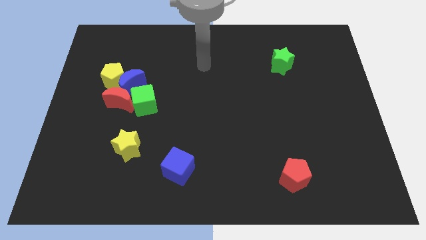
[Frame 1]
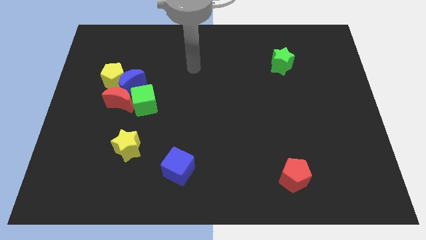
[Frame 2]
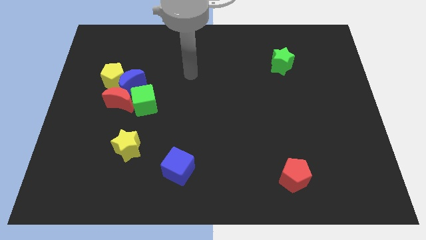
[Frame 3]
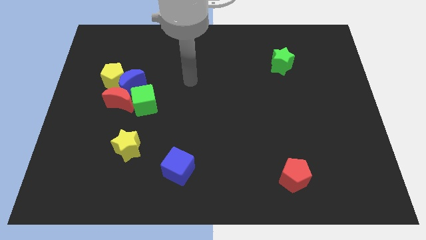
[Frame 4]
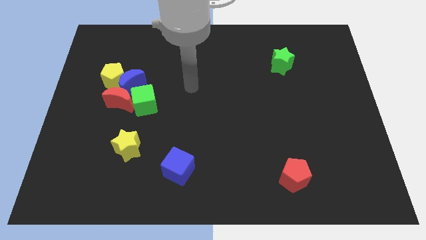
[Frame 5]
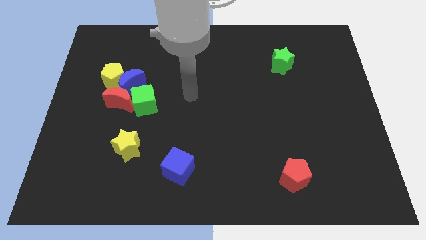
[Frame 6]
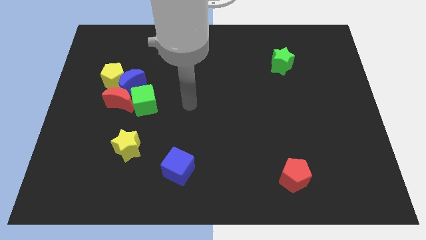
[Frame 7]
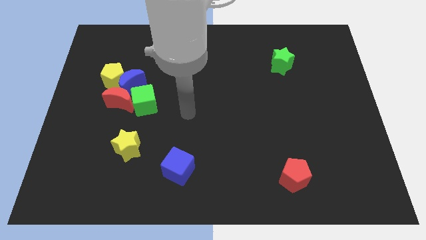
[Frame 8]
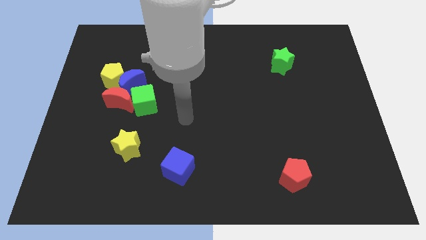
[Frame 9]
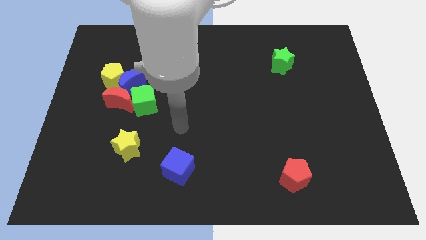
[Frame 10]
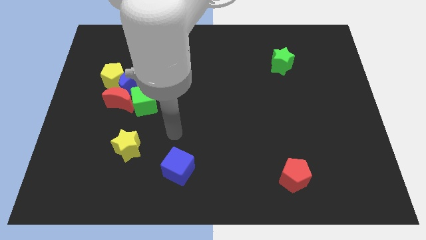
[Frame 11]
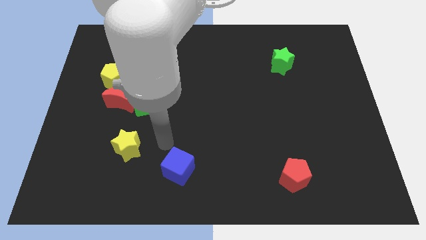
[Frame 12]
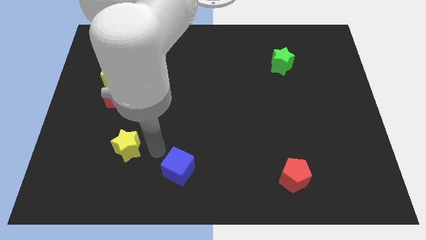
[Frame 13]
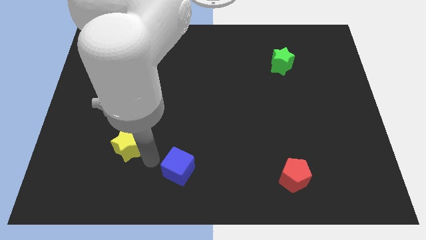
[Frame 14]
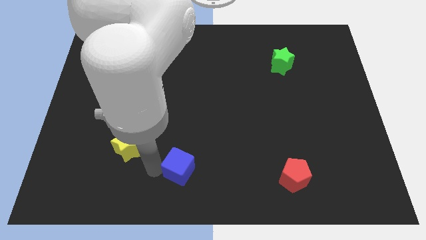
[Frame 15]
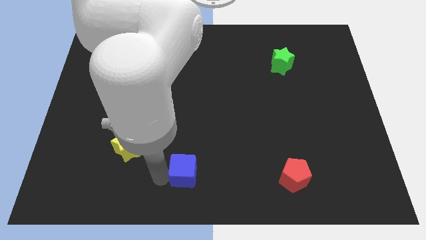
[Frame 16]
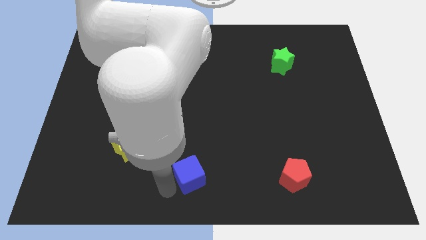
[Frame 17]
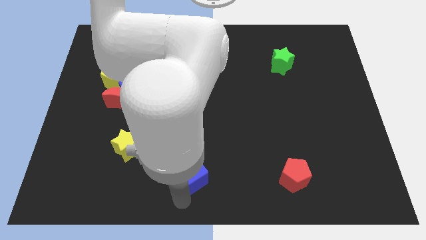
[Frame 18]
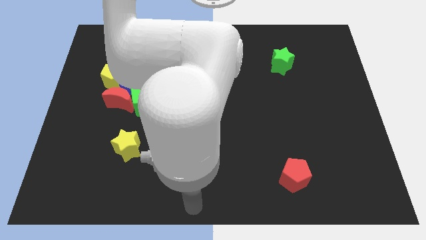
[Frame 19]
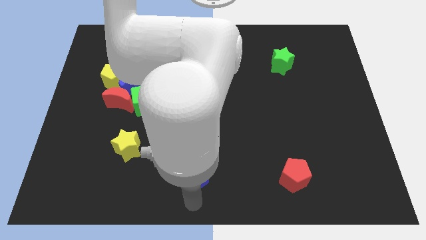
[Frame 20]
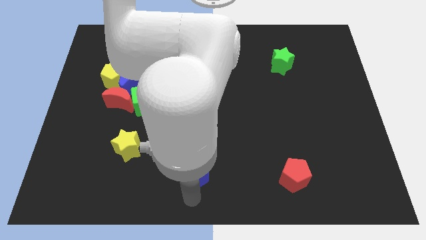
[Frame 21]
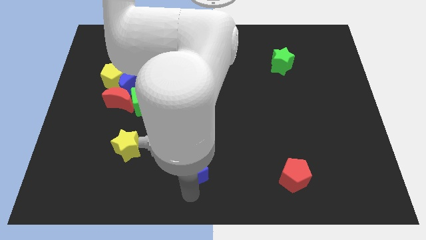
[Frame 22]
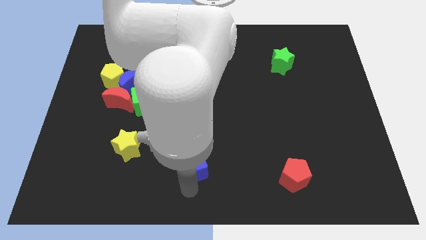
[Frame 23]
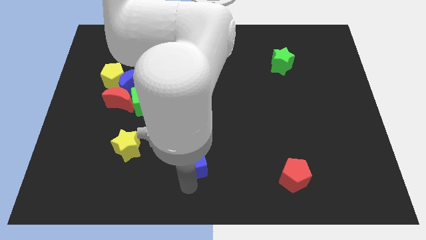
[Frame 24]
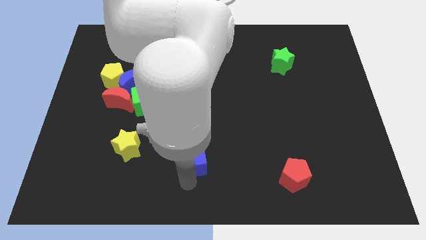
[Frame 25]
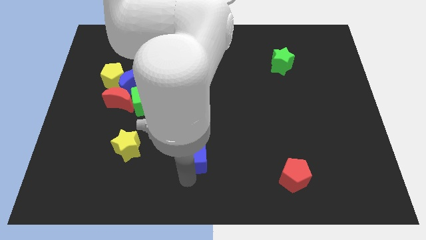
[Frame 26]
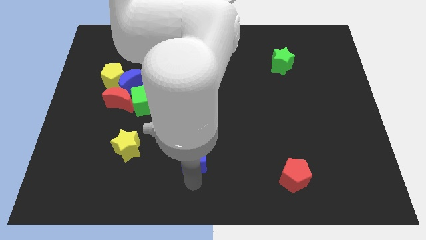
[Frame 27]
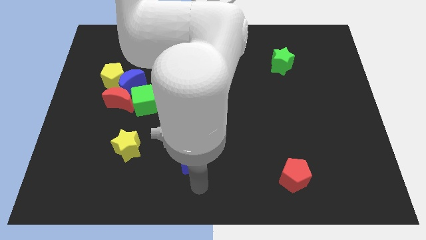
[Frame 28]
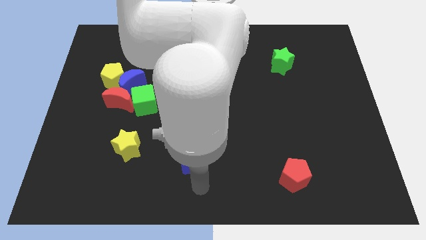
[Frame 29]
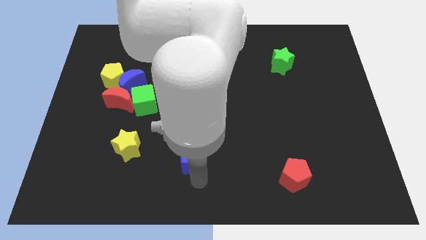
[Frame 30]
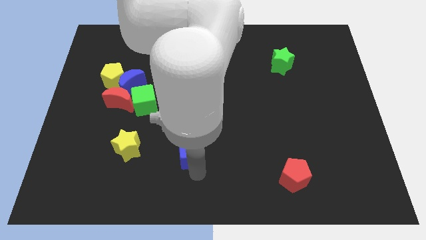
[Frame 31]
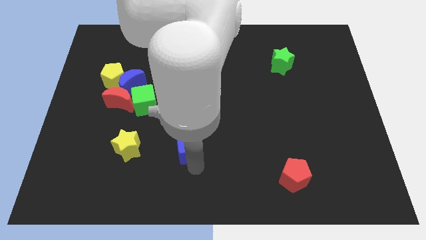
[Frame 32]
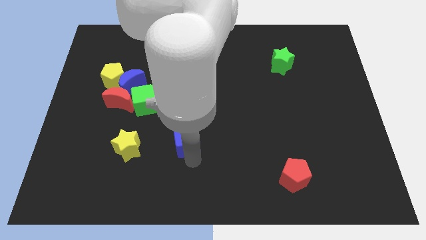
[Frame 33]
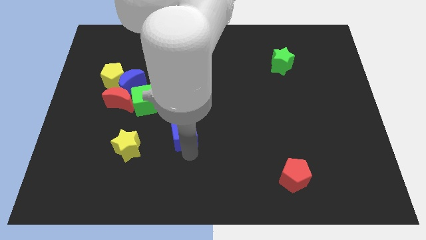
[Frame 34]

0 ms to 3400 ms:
move the blue cube a little bit up

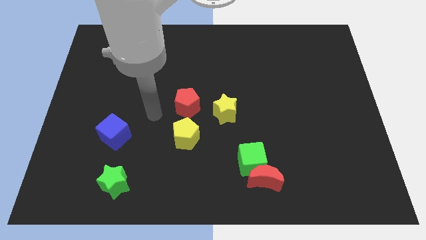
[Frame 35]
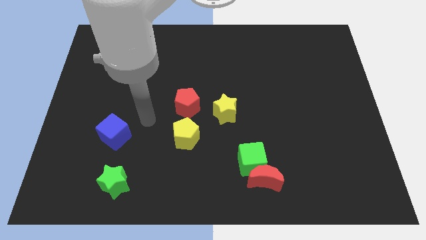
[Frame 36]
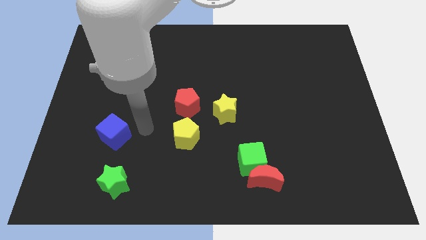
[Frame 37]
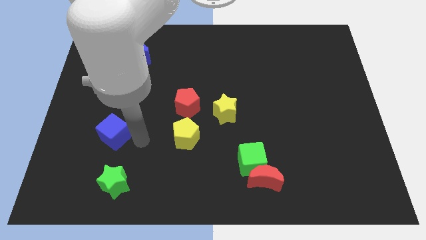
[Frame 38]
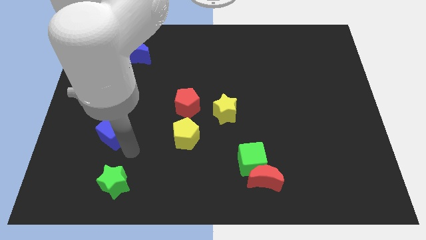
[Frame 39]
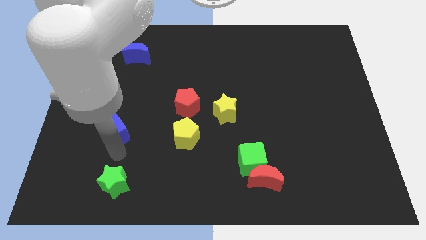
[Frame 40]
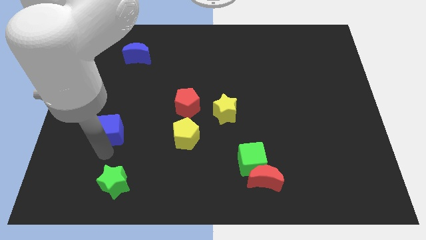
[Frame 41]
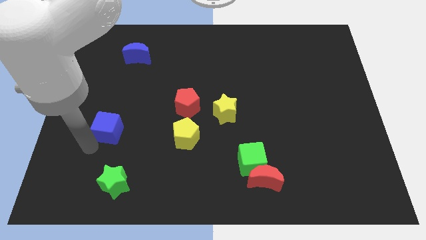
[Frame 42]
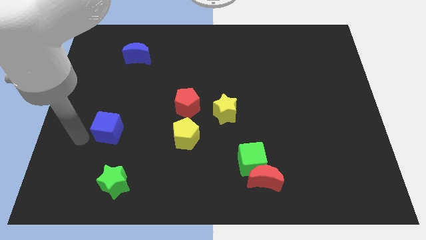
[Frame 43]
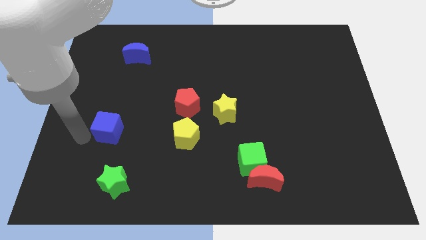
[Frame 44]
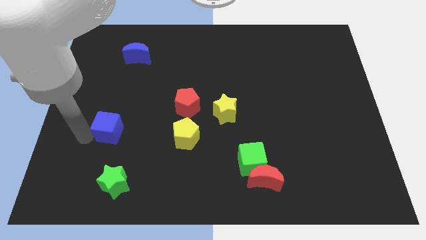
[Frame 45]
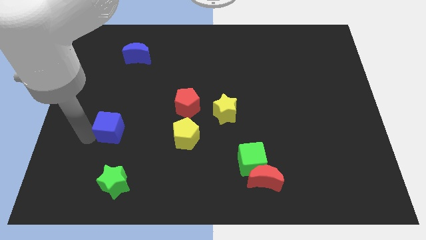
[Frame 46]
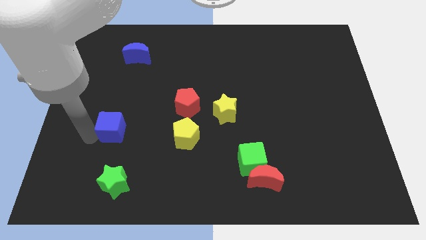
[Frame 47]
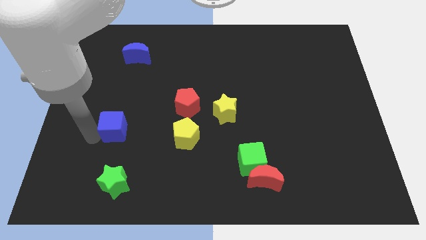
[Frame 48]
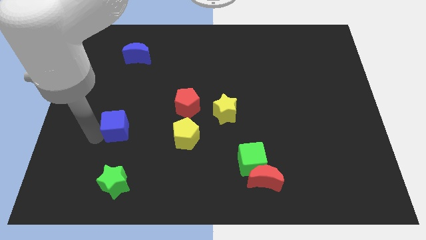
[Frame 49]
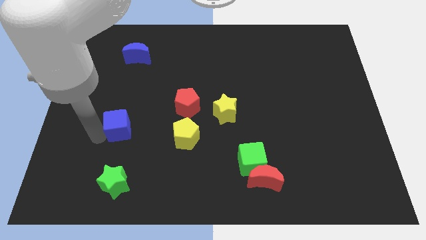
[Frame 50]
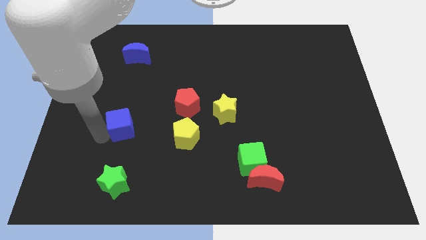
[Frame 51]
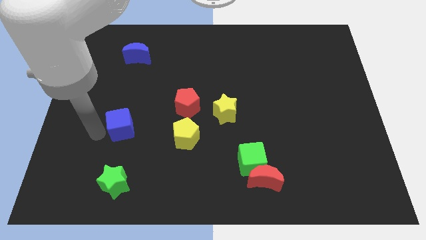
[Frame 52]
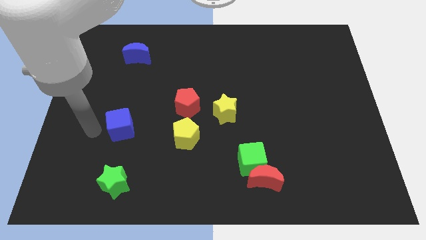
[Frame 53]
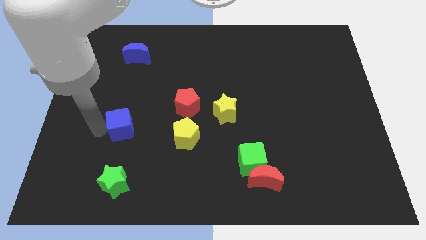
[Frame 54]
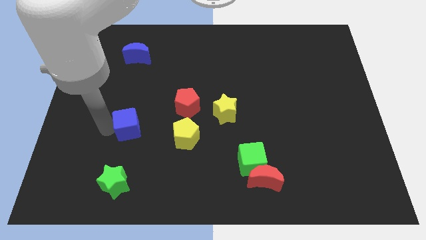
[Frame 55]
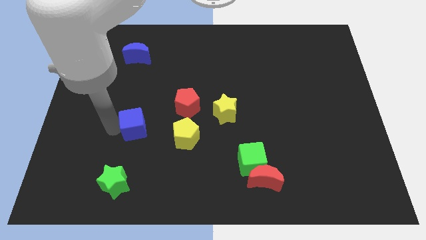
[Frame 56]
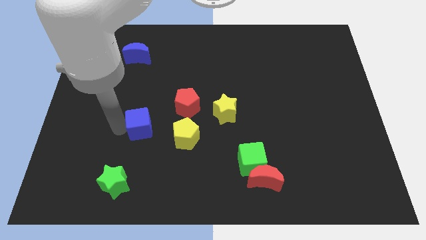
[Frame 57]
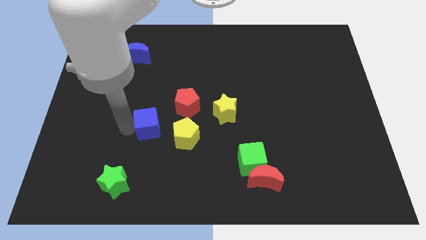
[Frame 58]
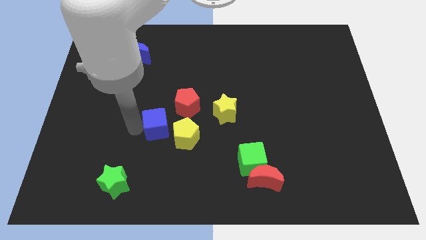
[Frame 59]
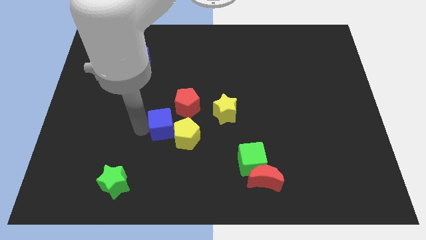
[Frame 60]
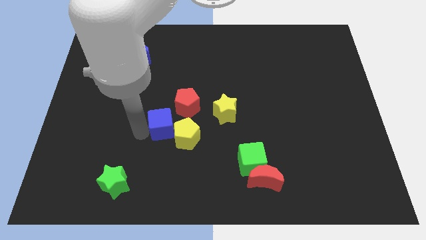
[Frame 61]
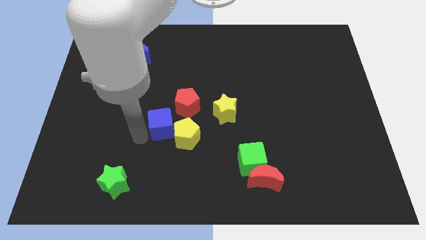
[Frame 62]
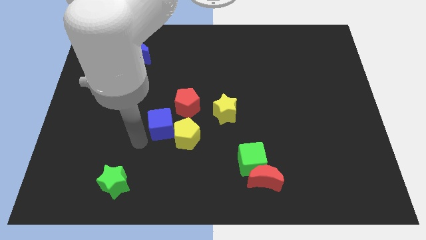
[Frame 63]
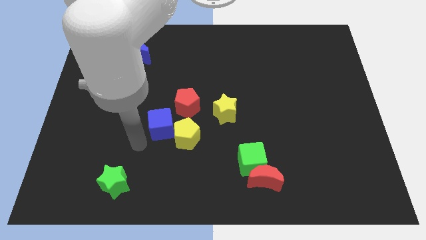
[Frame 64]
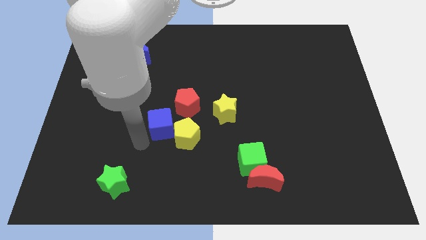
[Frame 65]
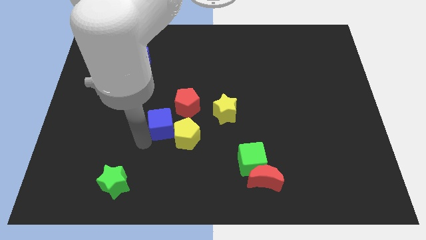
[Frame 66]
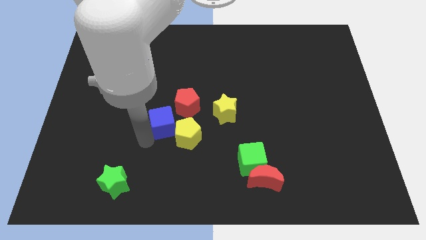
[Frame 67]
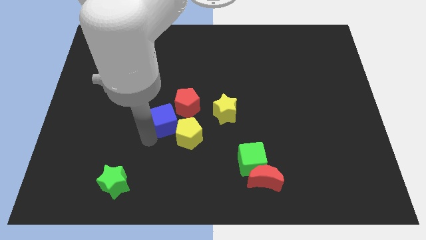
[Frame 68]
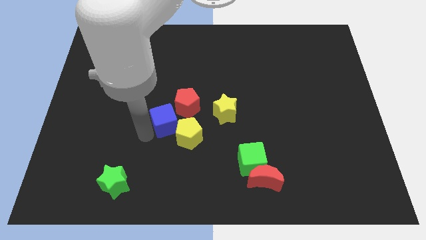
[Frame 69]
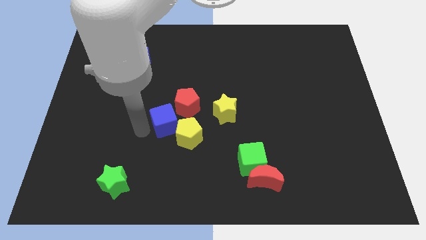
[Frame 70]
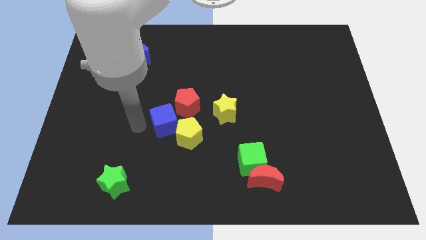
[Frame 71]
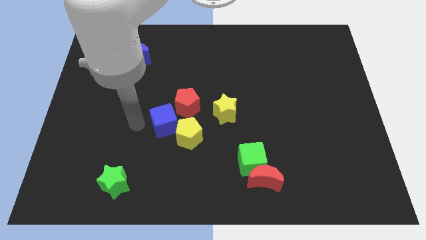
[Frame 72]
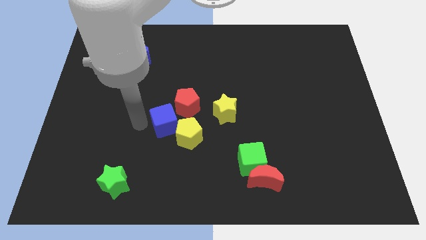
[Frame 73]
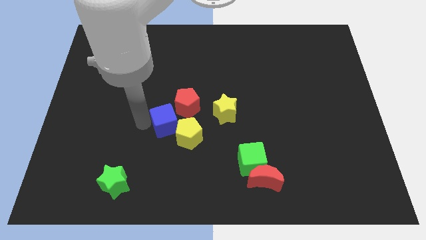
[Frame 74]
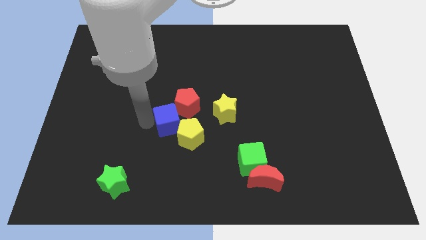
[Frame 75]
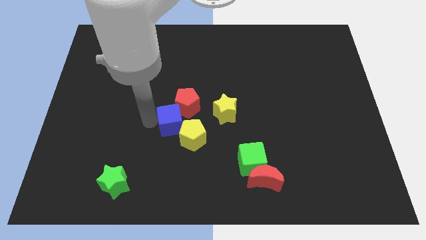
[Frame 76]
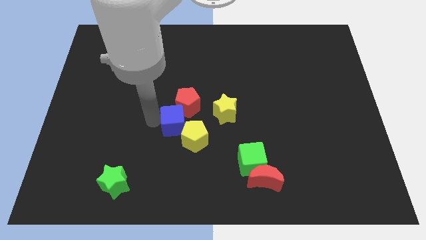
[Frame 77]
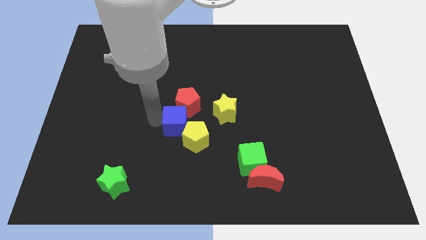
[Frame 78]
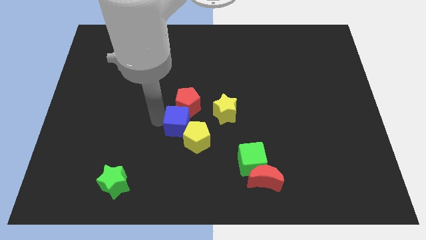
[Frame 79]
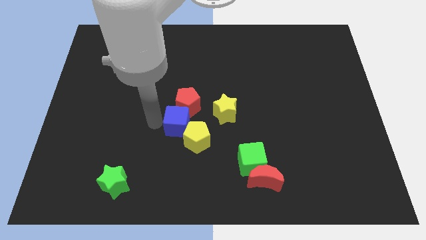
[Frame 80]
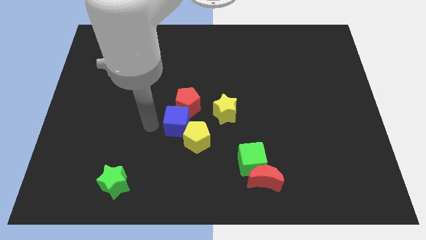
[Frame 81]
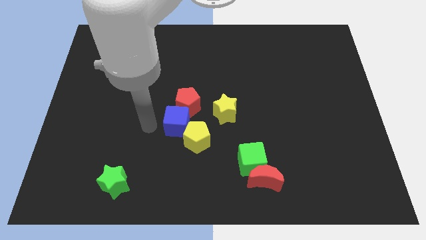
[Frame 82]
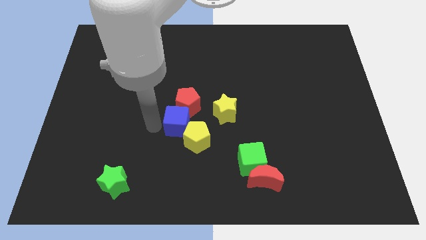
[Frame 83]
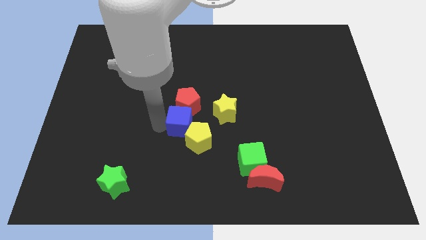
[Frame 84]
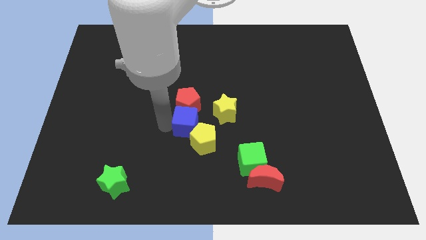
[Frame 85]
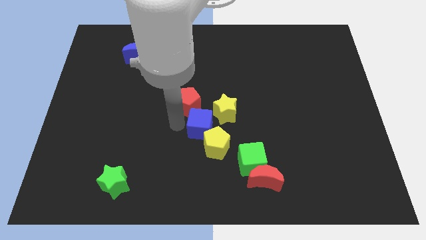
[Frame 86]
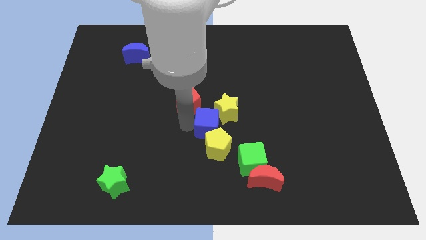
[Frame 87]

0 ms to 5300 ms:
move the blue cube to the right
